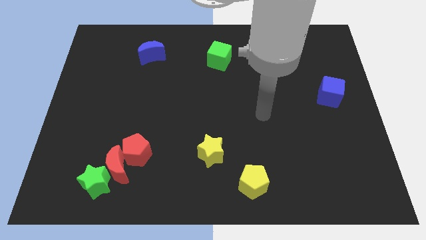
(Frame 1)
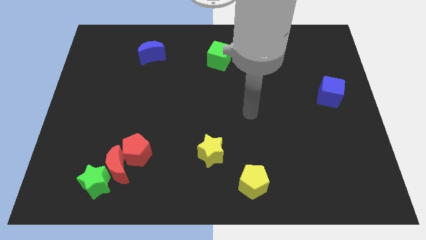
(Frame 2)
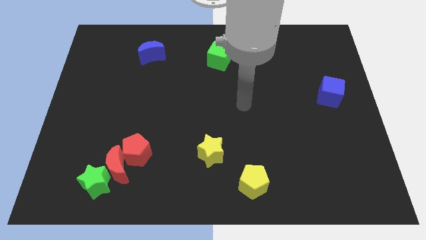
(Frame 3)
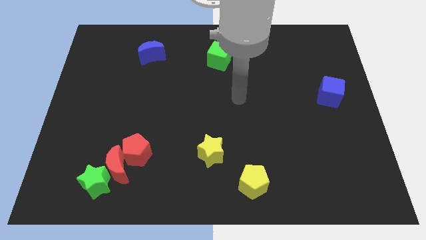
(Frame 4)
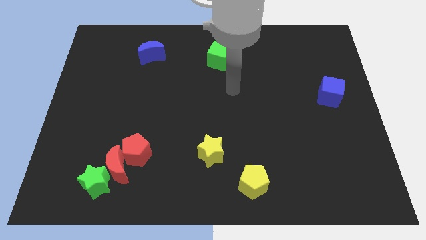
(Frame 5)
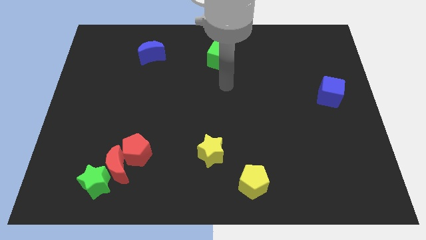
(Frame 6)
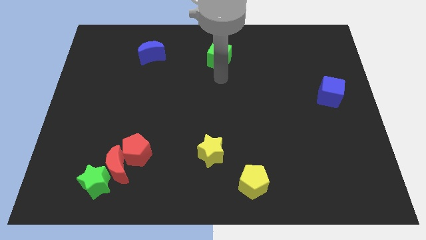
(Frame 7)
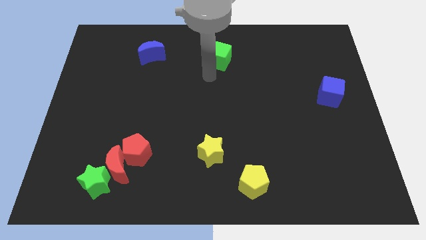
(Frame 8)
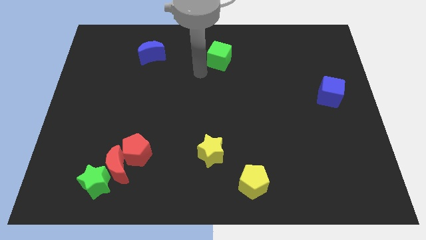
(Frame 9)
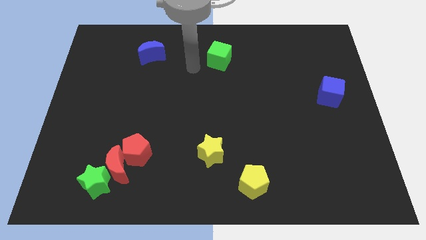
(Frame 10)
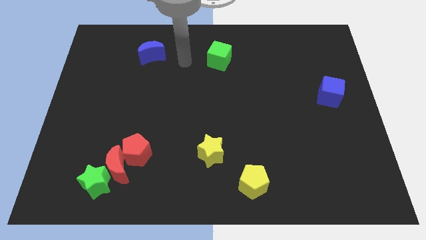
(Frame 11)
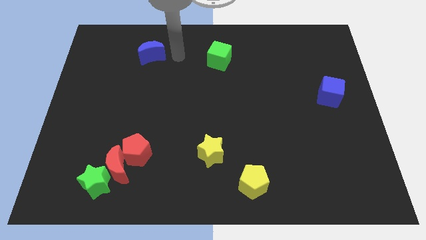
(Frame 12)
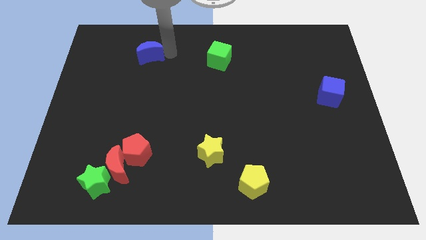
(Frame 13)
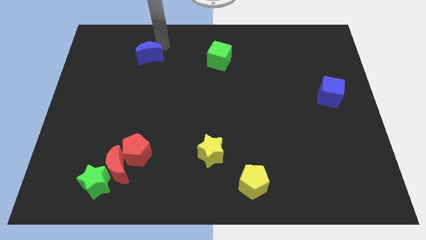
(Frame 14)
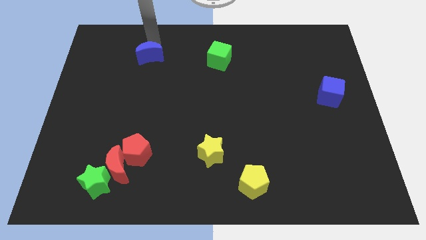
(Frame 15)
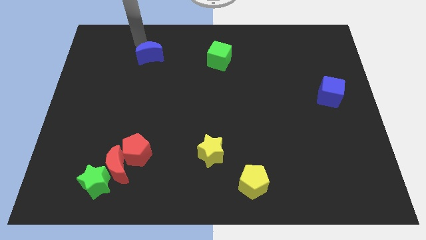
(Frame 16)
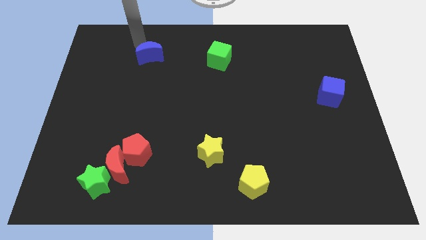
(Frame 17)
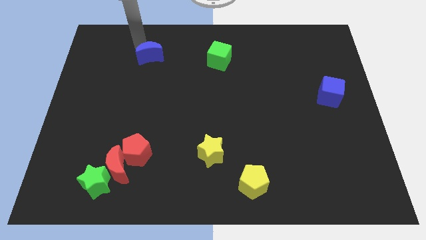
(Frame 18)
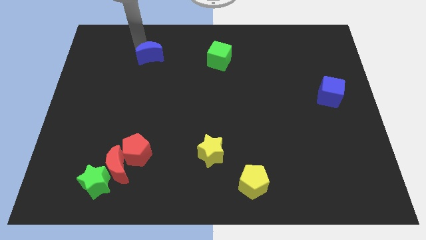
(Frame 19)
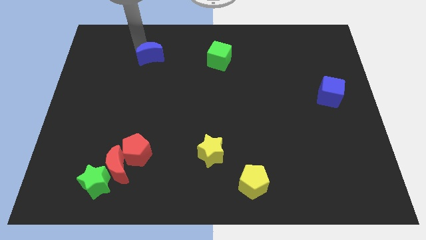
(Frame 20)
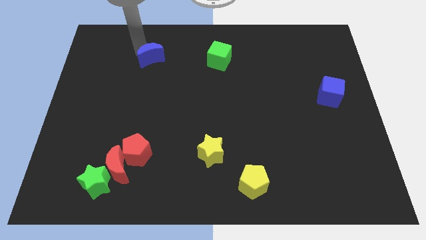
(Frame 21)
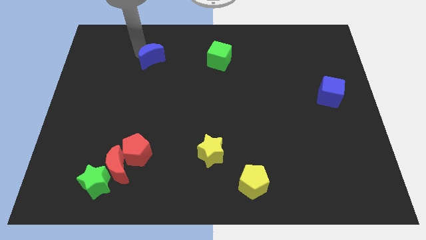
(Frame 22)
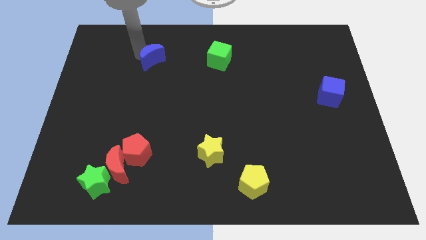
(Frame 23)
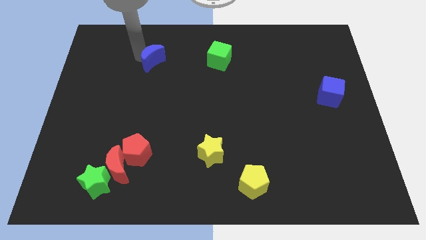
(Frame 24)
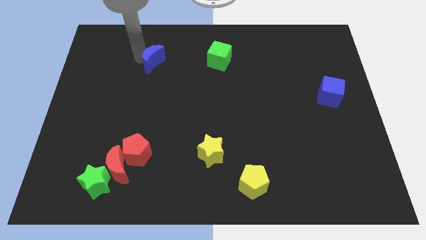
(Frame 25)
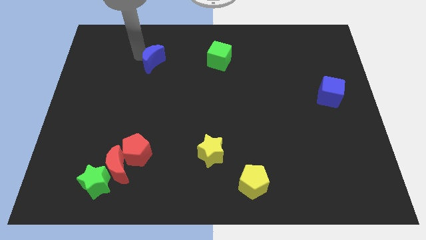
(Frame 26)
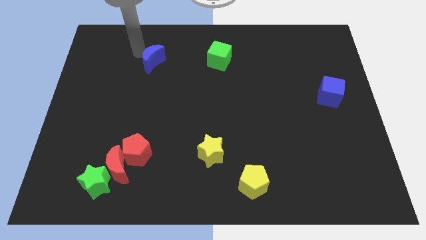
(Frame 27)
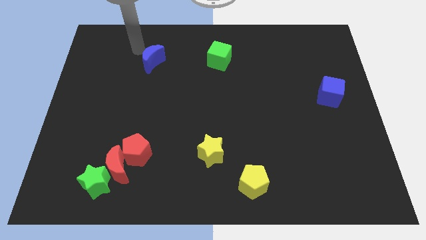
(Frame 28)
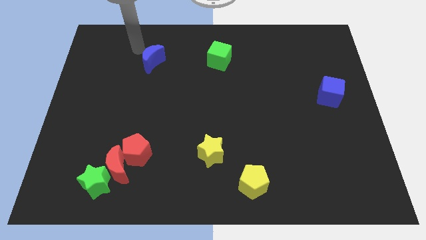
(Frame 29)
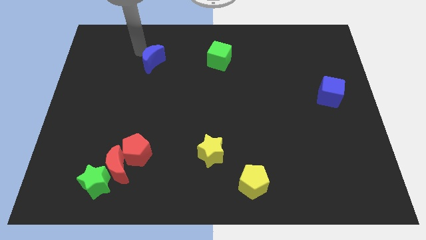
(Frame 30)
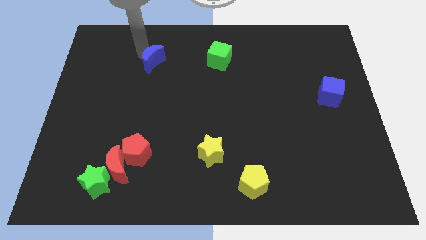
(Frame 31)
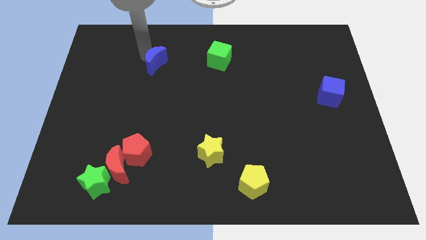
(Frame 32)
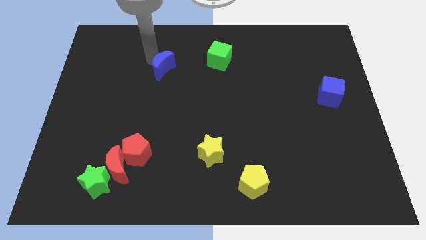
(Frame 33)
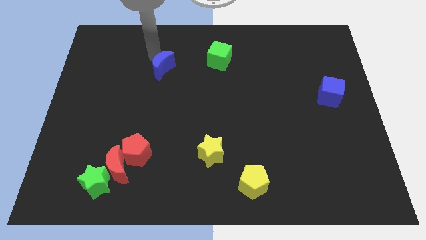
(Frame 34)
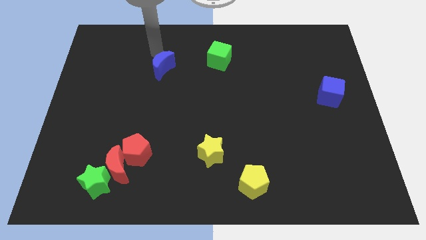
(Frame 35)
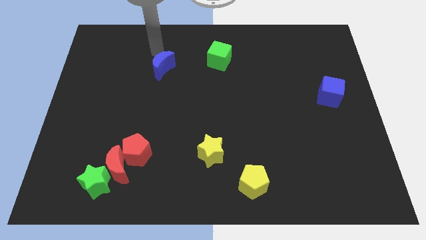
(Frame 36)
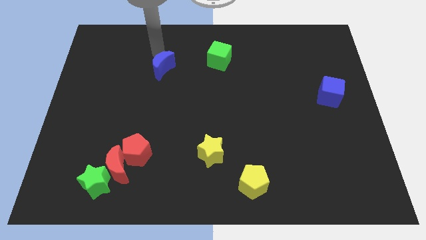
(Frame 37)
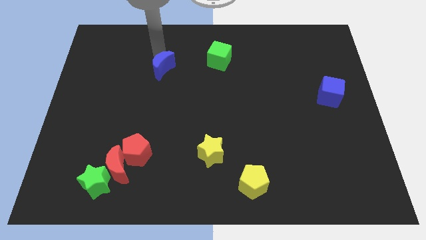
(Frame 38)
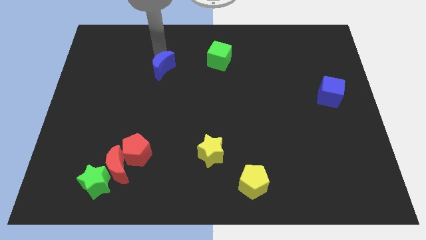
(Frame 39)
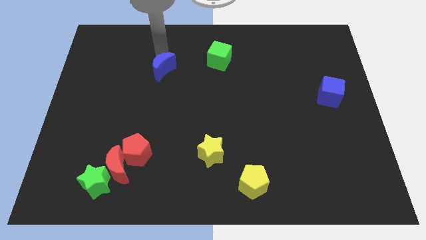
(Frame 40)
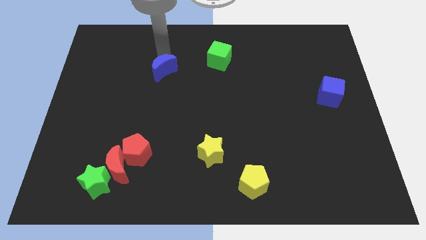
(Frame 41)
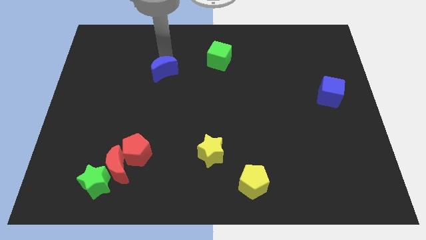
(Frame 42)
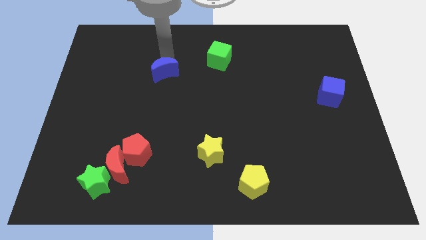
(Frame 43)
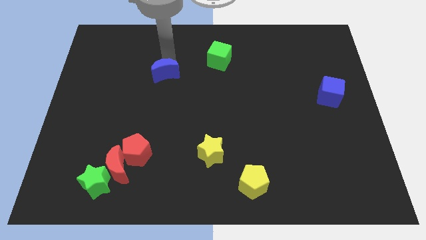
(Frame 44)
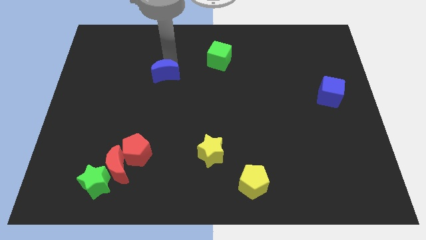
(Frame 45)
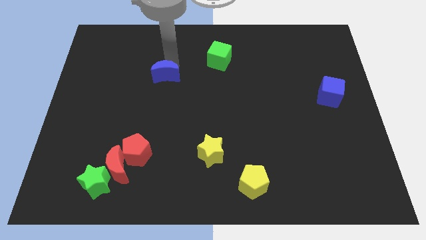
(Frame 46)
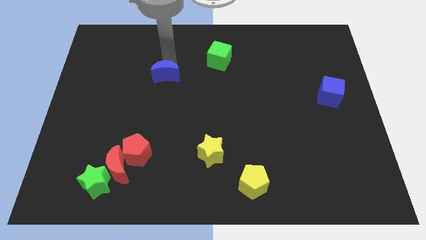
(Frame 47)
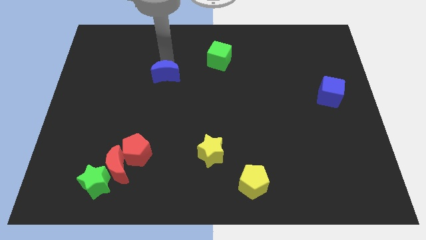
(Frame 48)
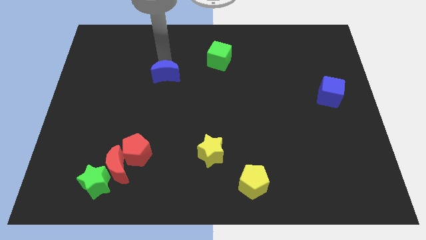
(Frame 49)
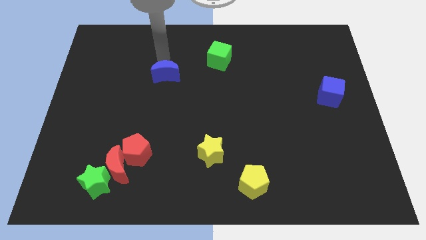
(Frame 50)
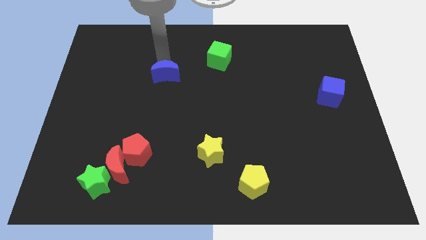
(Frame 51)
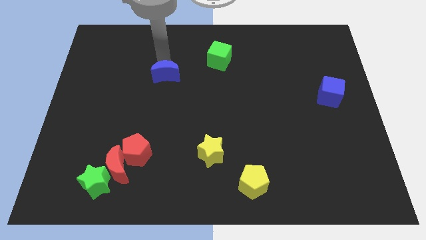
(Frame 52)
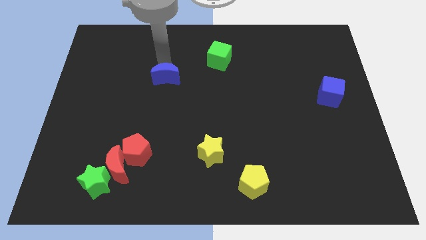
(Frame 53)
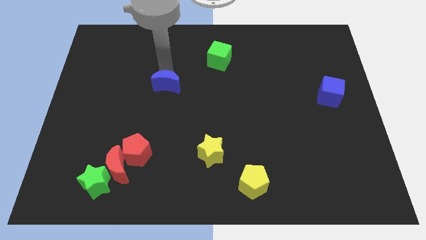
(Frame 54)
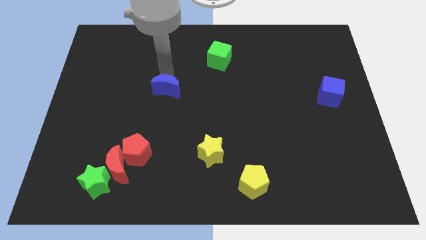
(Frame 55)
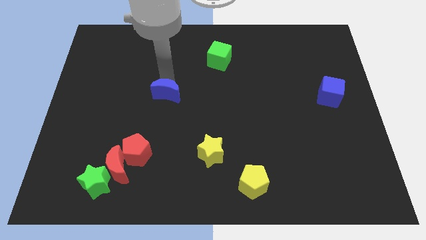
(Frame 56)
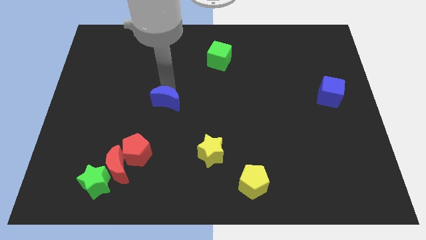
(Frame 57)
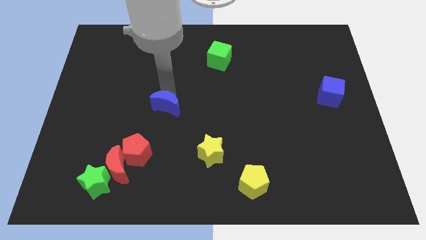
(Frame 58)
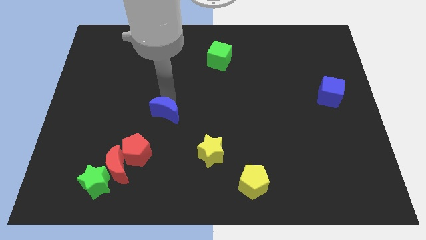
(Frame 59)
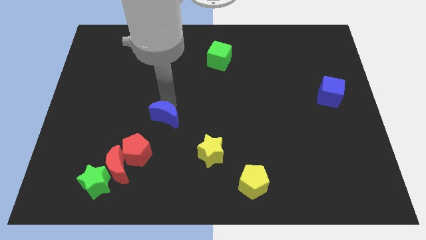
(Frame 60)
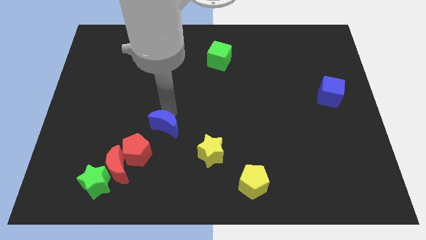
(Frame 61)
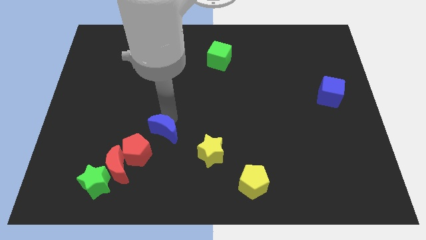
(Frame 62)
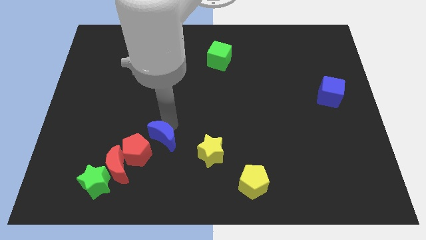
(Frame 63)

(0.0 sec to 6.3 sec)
push the blue moon diagonally up and to the right of the red moon

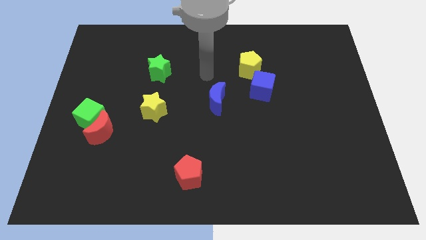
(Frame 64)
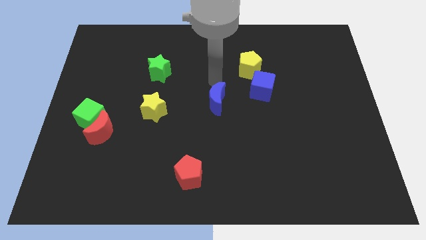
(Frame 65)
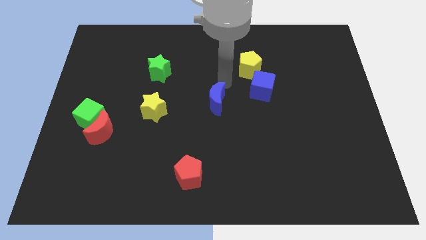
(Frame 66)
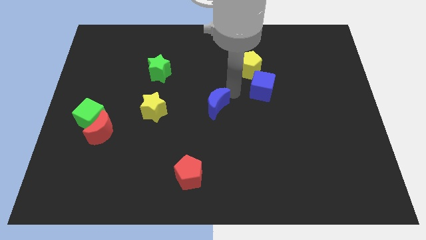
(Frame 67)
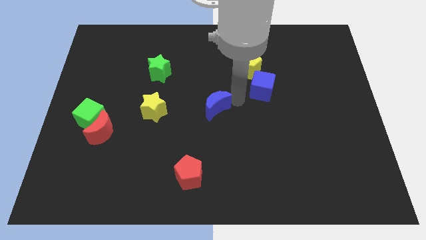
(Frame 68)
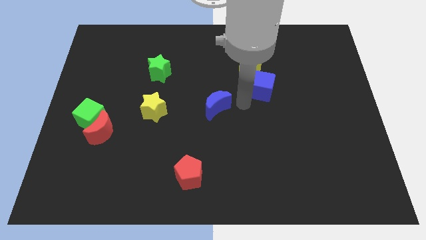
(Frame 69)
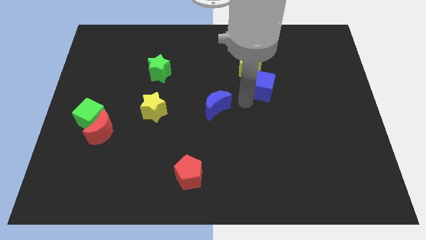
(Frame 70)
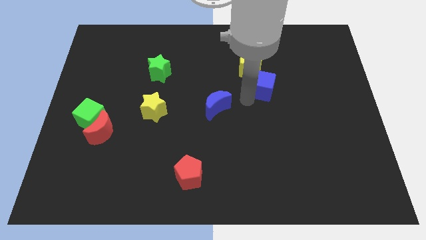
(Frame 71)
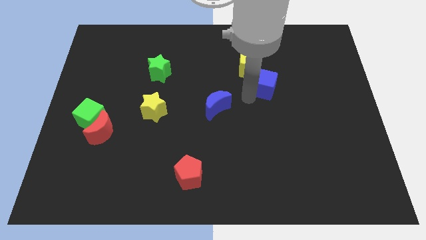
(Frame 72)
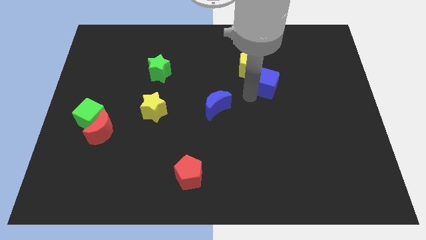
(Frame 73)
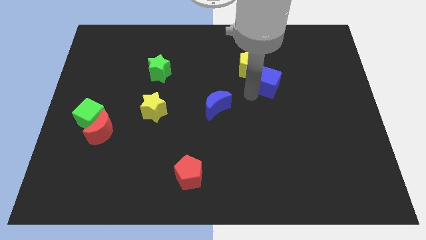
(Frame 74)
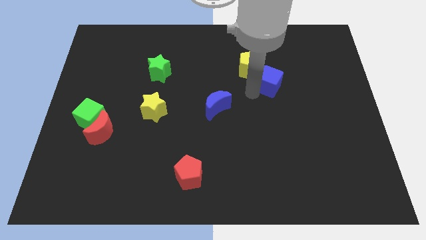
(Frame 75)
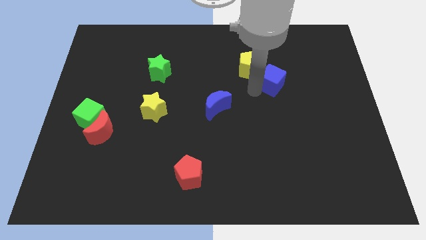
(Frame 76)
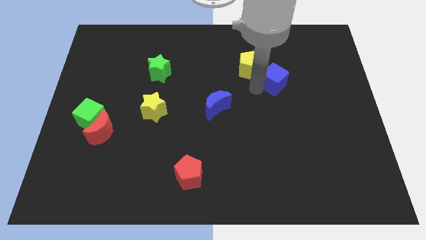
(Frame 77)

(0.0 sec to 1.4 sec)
slide the blue cube just right of the yellow pentagon
